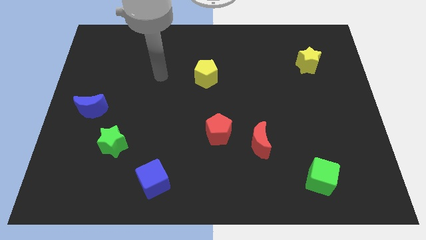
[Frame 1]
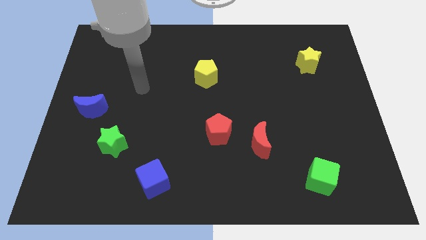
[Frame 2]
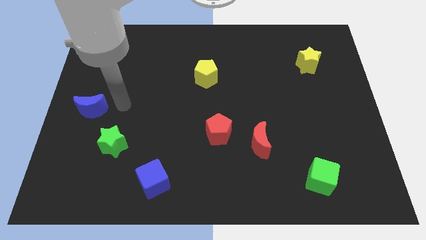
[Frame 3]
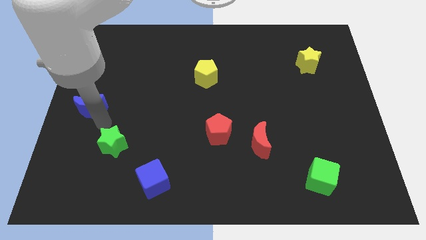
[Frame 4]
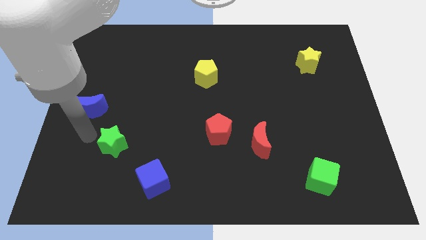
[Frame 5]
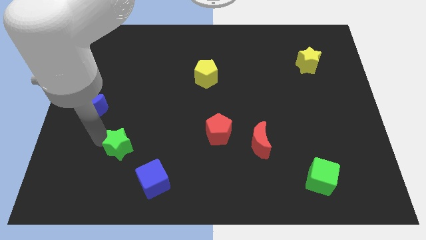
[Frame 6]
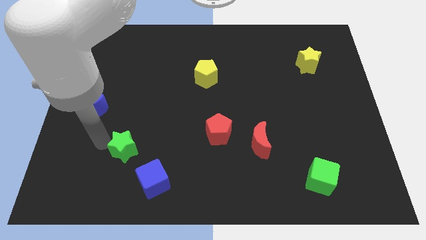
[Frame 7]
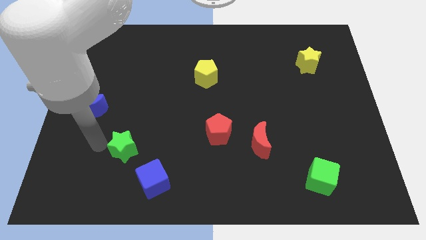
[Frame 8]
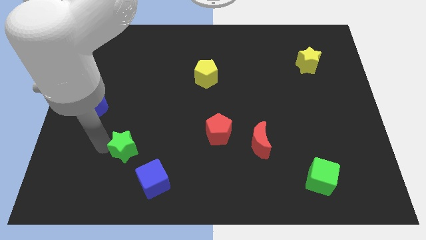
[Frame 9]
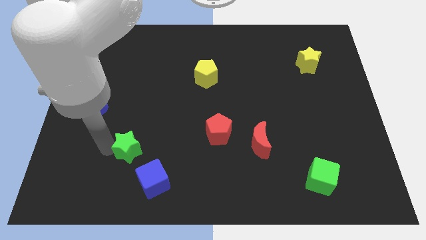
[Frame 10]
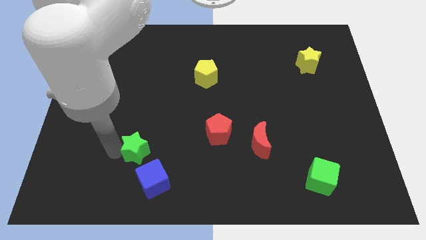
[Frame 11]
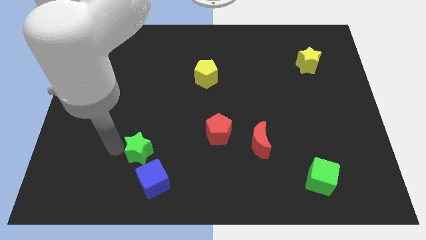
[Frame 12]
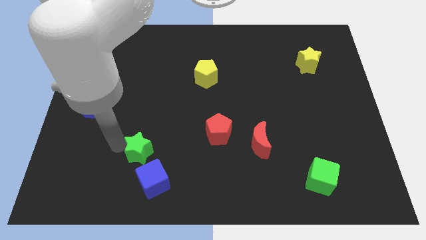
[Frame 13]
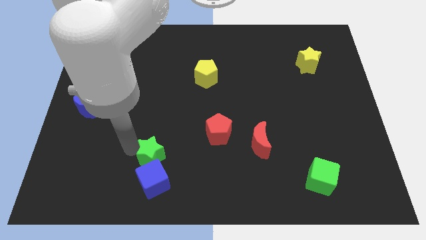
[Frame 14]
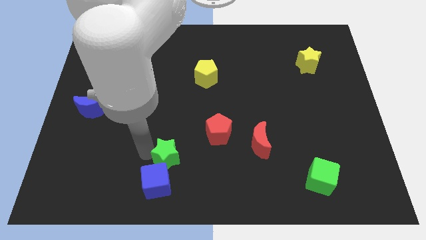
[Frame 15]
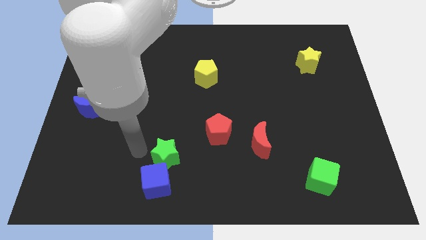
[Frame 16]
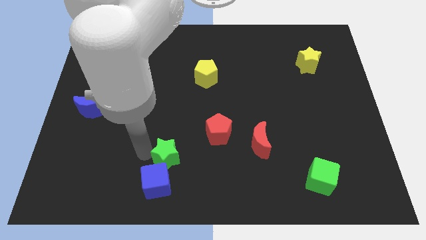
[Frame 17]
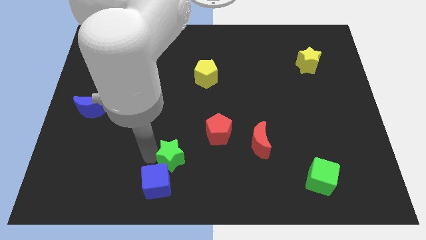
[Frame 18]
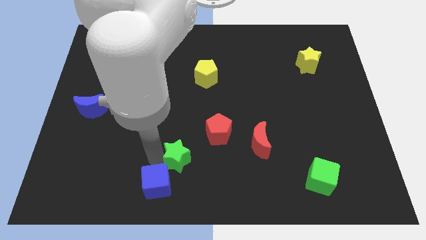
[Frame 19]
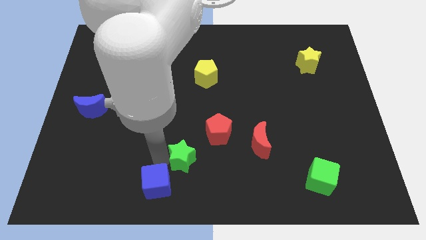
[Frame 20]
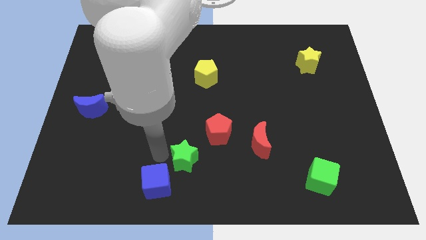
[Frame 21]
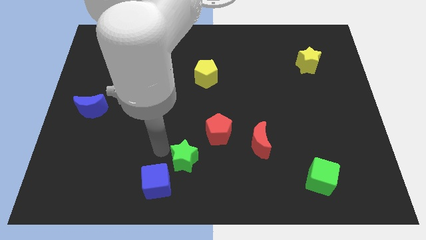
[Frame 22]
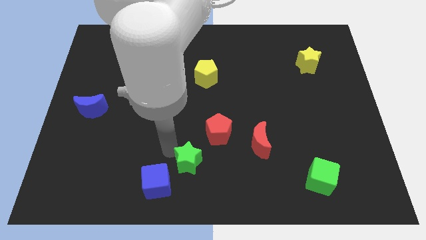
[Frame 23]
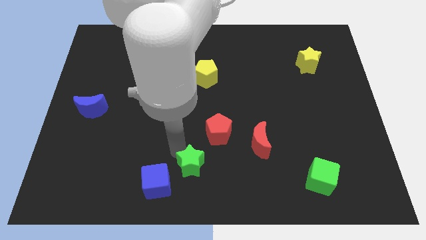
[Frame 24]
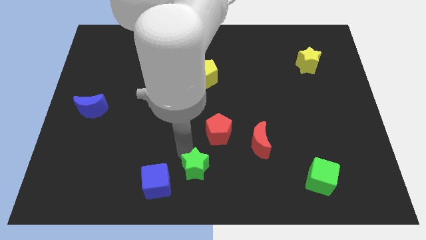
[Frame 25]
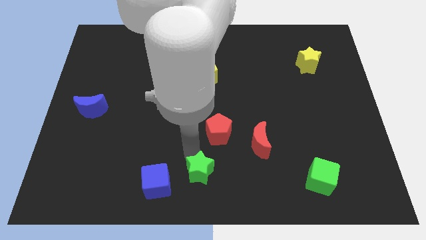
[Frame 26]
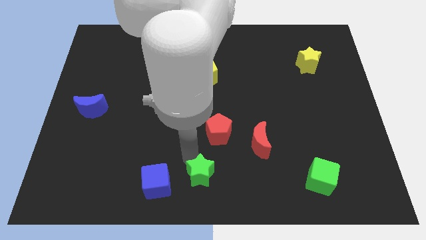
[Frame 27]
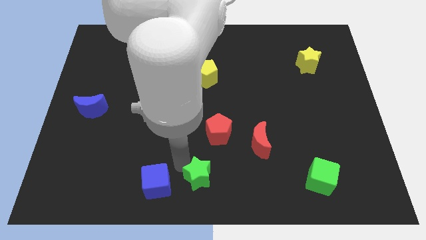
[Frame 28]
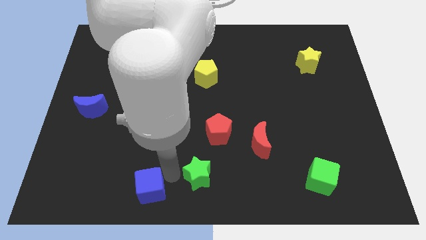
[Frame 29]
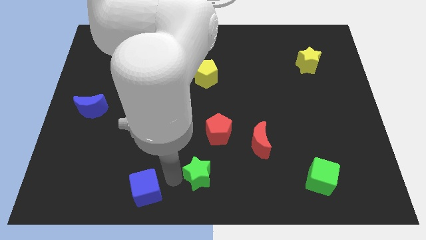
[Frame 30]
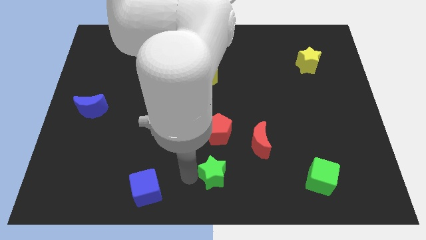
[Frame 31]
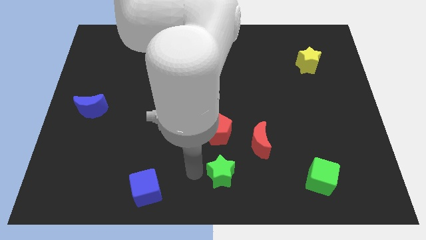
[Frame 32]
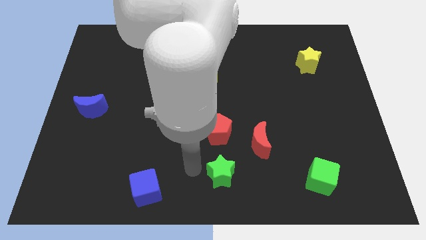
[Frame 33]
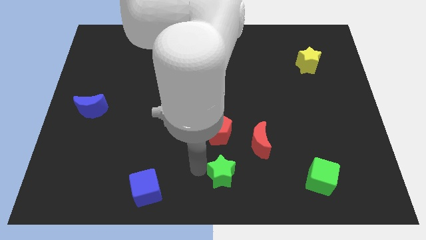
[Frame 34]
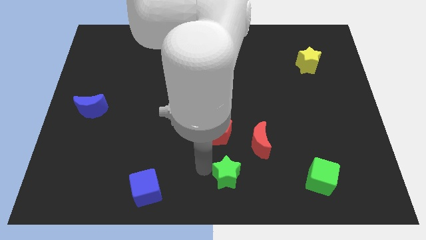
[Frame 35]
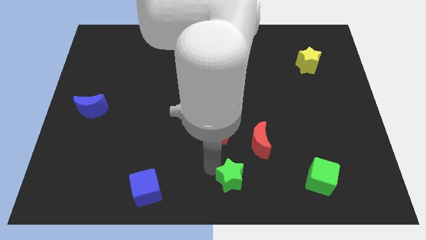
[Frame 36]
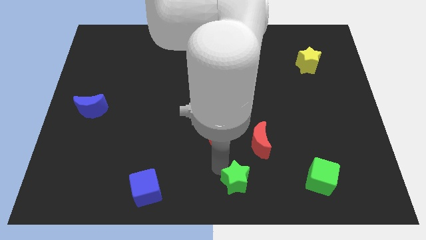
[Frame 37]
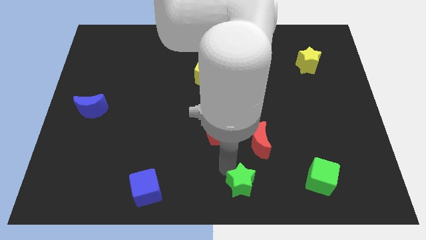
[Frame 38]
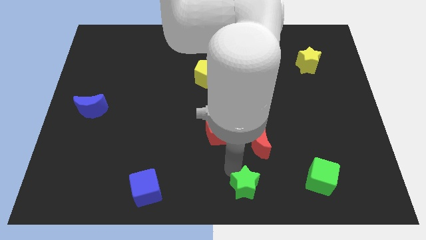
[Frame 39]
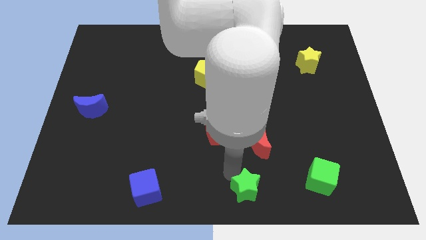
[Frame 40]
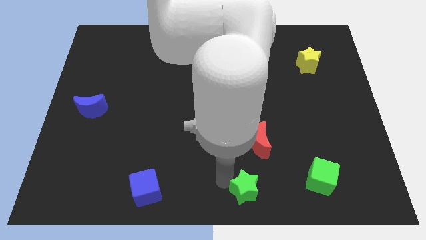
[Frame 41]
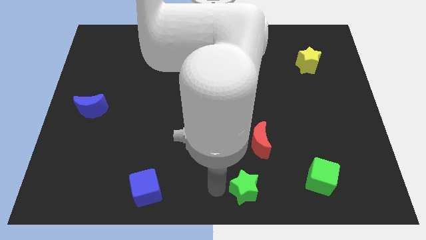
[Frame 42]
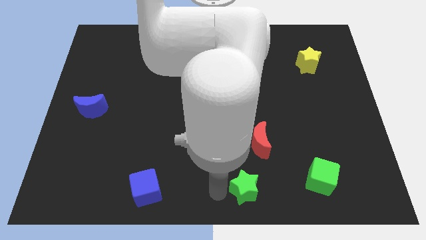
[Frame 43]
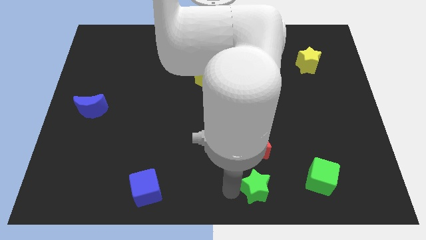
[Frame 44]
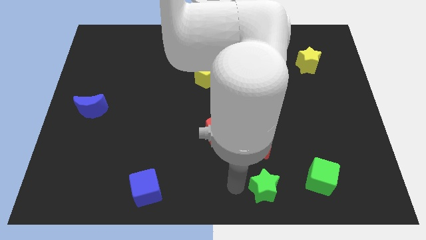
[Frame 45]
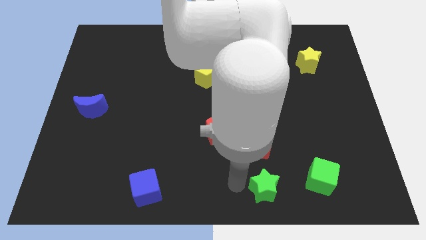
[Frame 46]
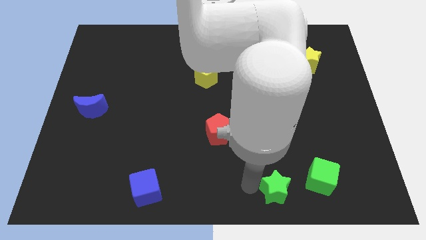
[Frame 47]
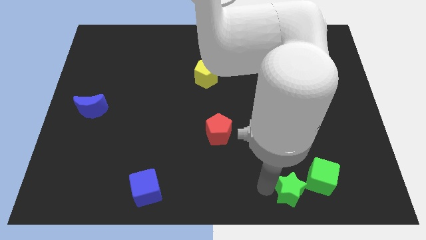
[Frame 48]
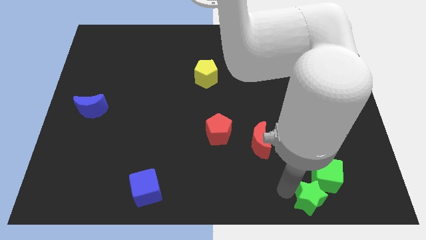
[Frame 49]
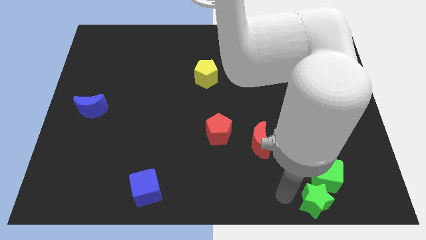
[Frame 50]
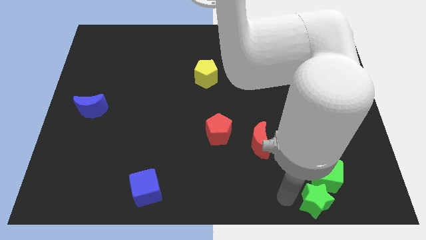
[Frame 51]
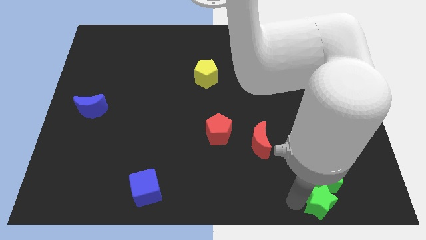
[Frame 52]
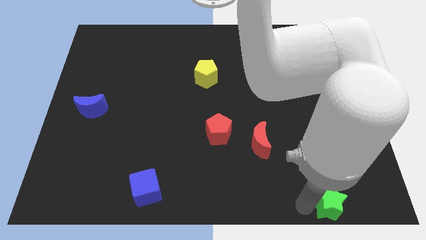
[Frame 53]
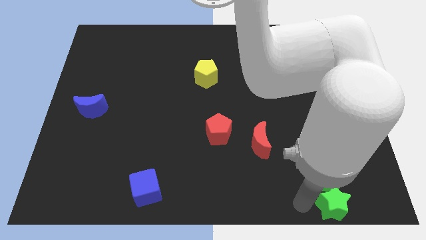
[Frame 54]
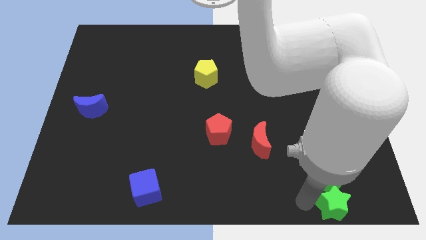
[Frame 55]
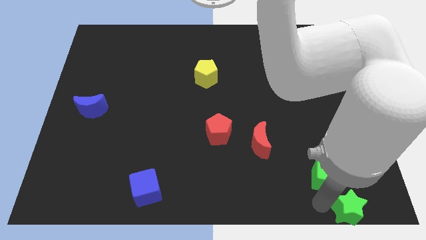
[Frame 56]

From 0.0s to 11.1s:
slide the green star to the lower right corner
